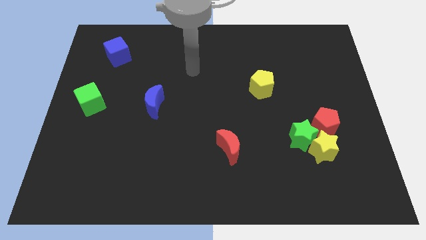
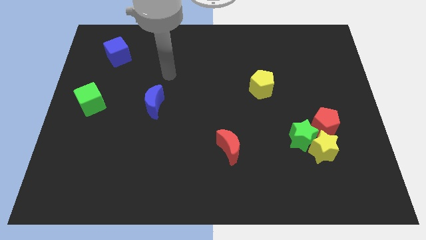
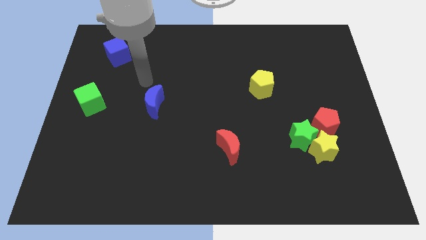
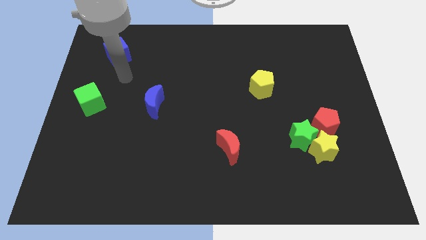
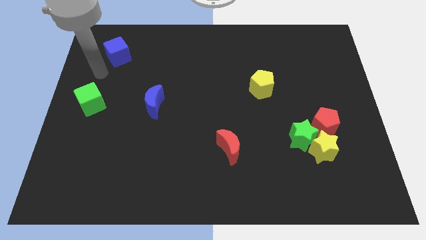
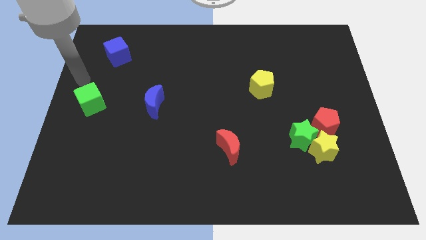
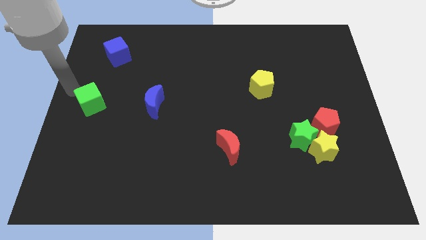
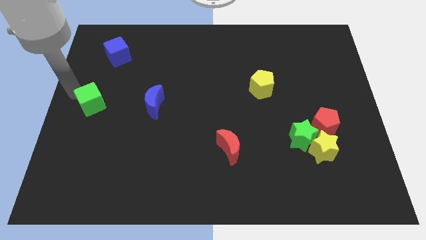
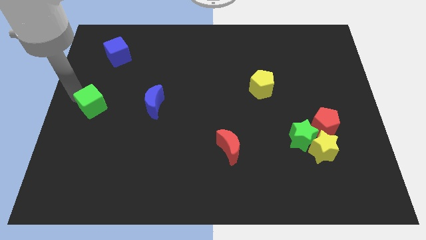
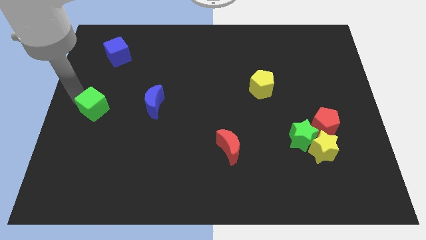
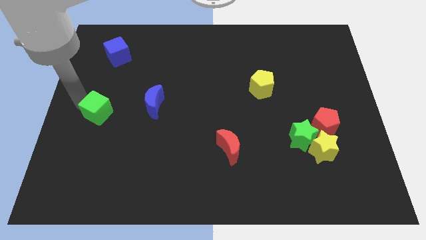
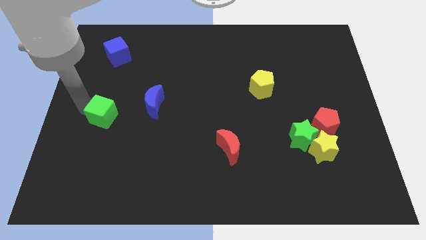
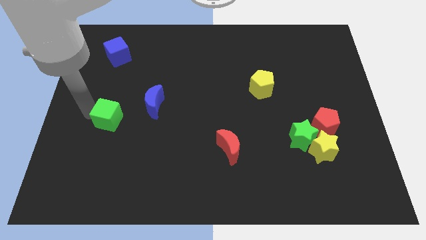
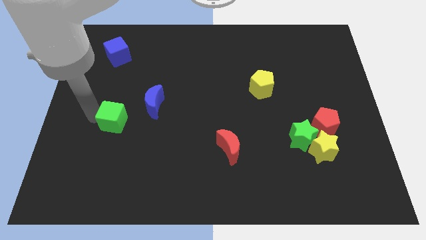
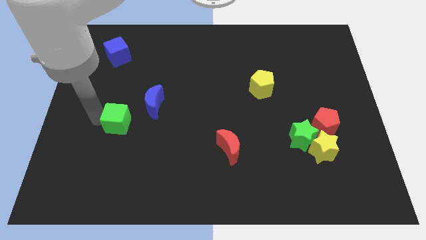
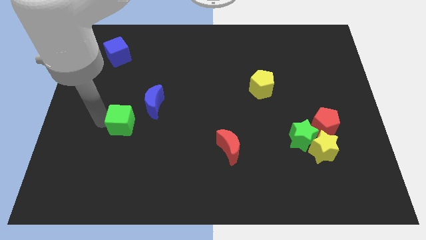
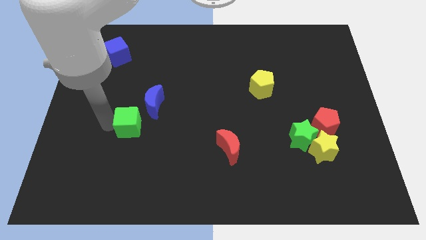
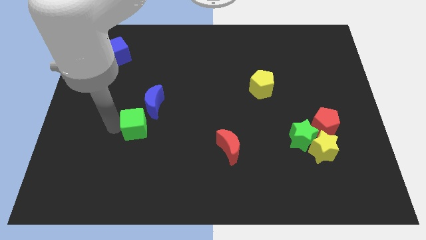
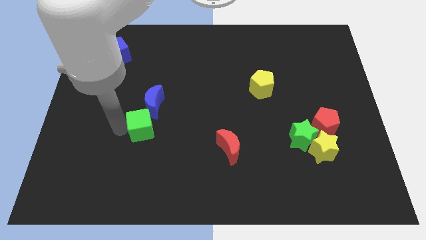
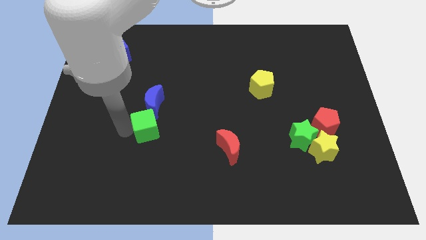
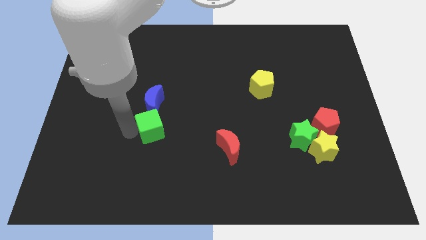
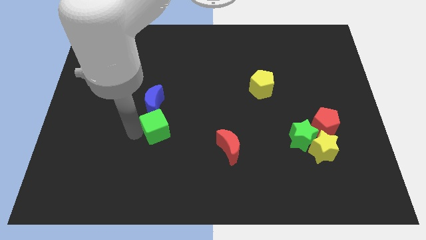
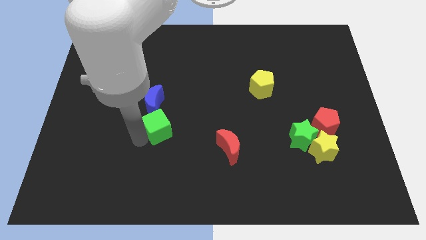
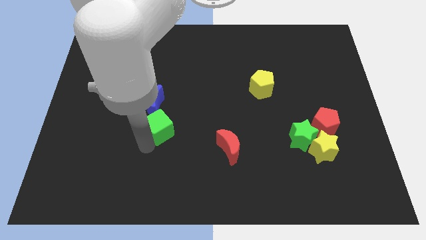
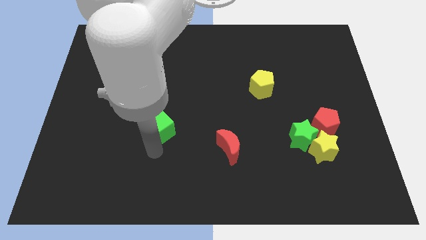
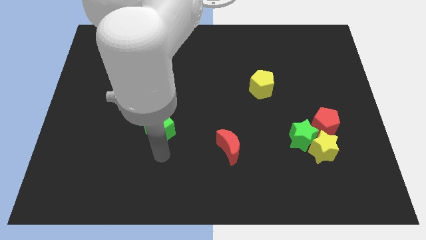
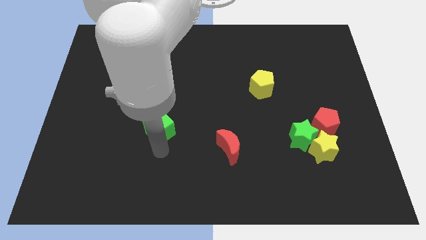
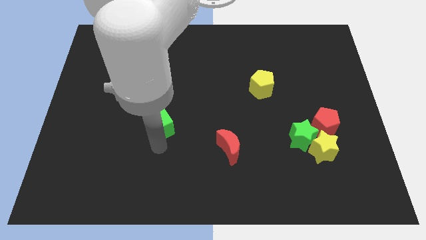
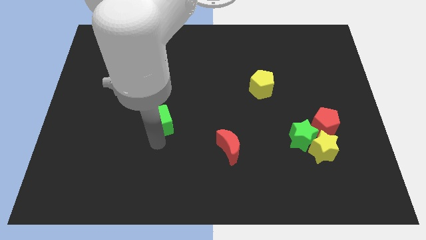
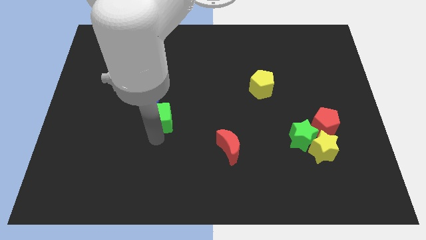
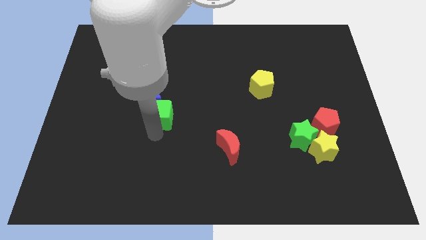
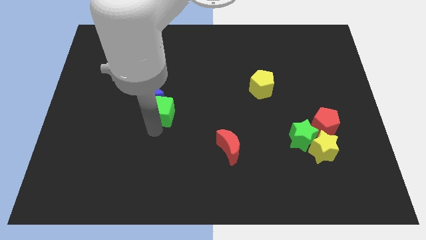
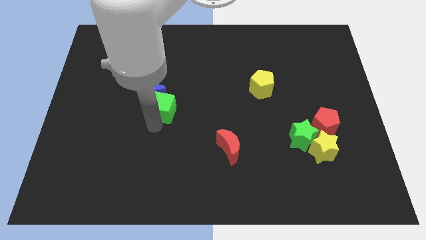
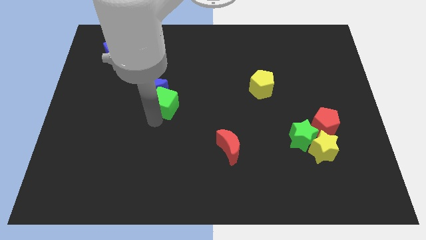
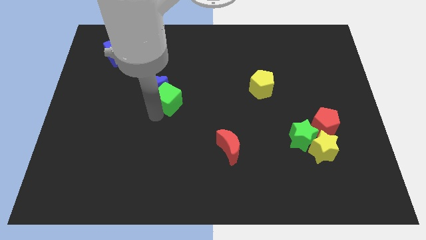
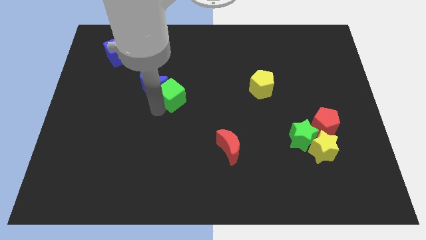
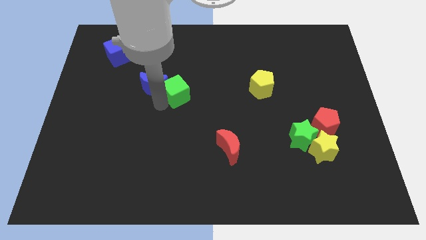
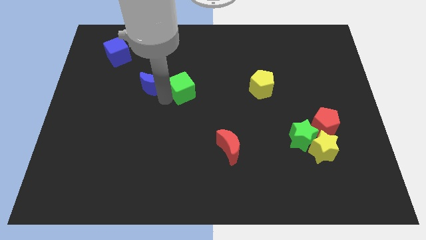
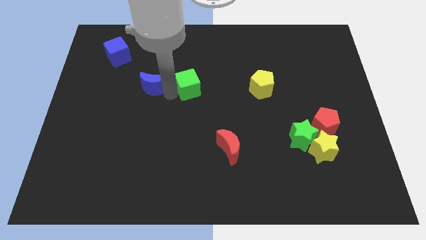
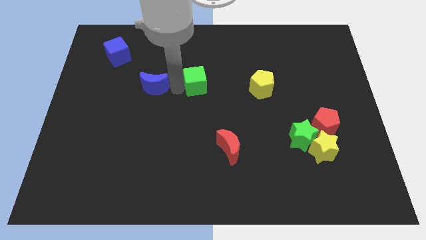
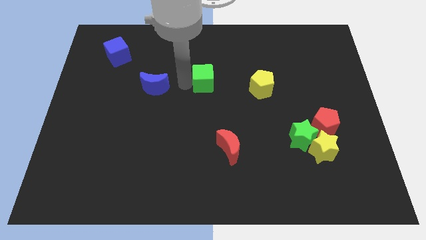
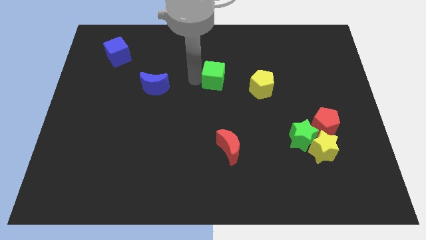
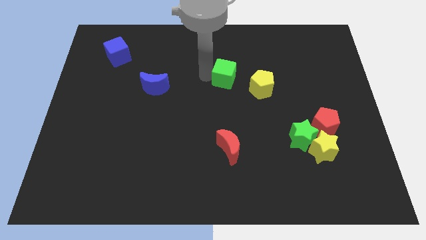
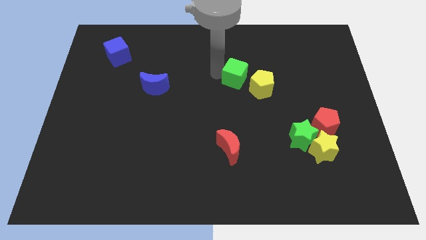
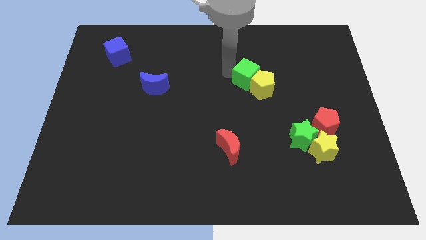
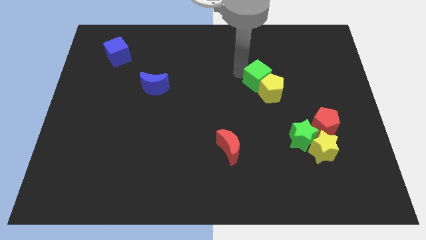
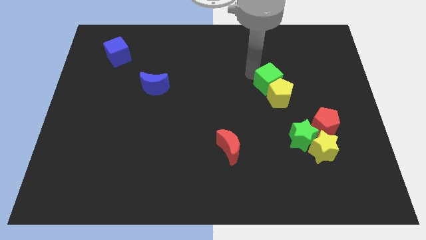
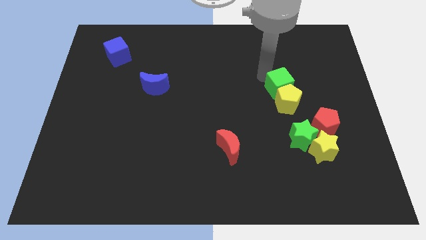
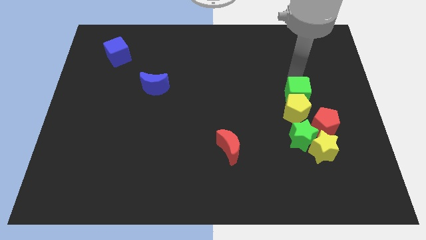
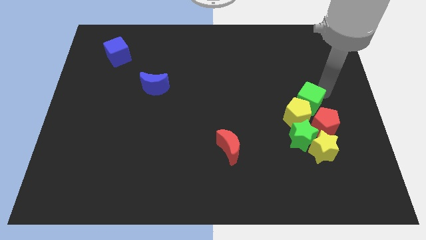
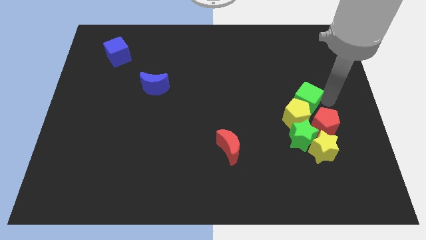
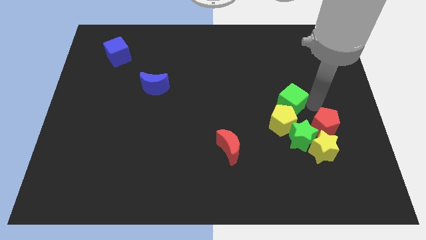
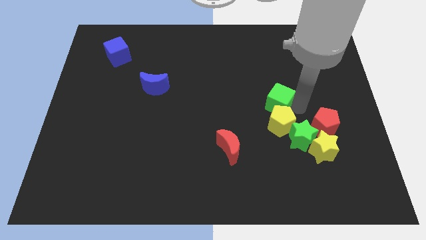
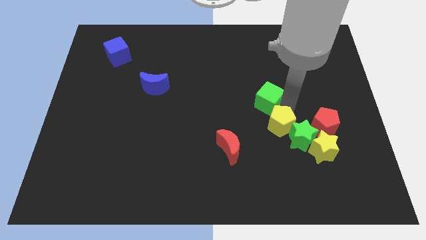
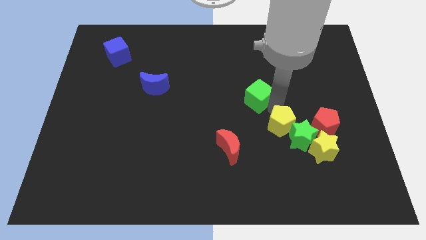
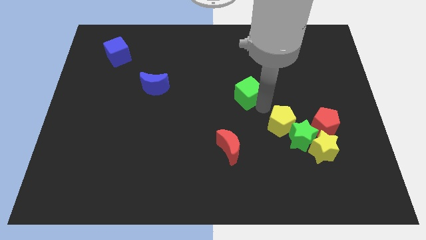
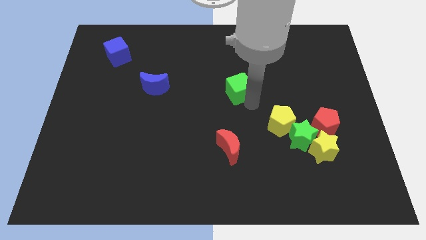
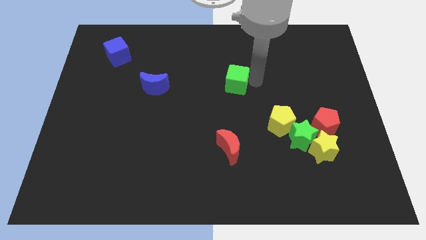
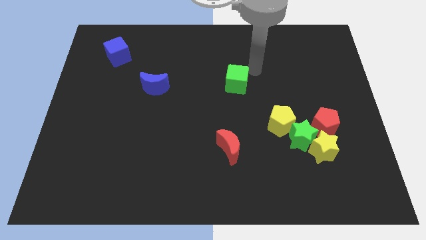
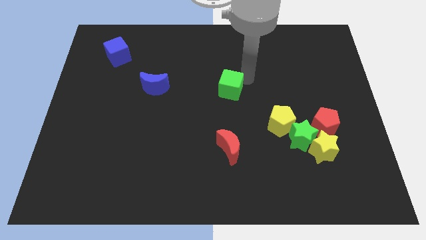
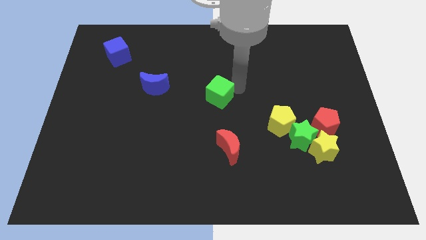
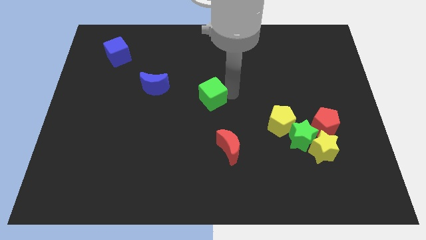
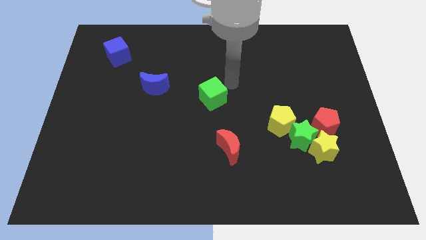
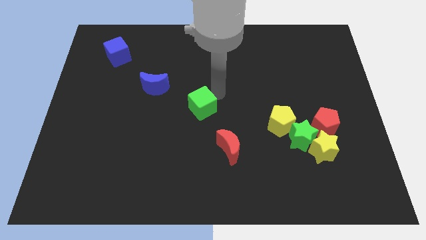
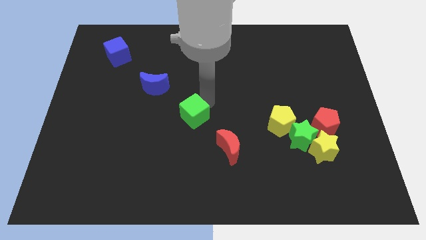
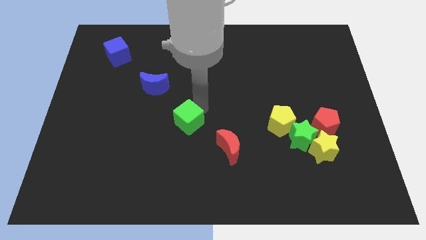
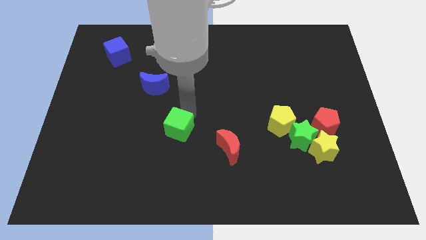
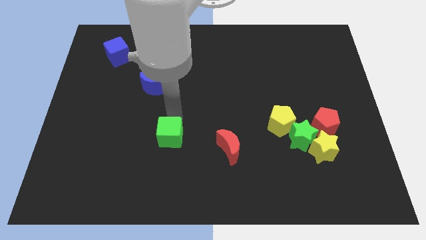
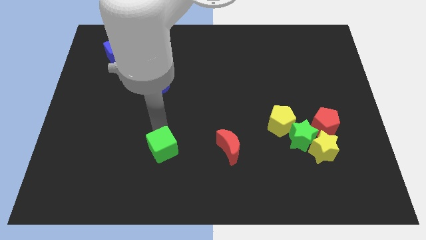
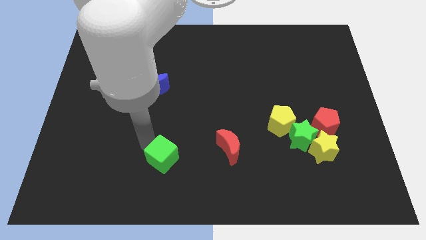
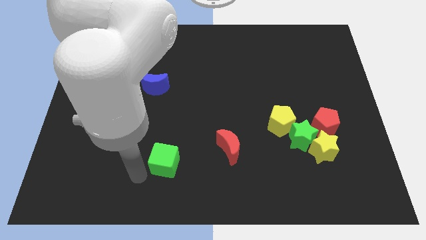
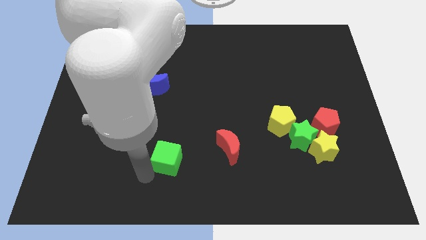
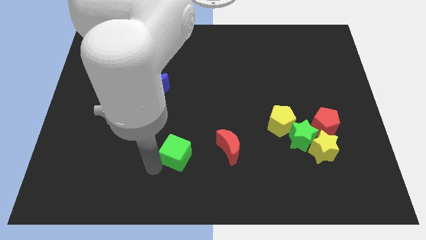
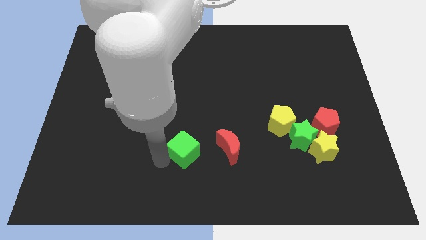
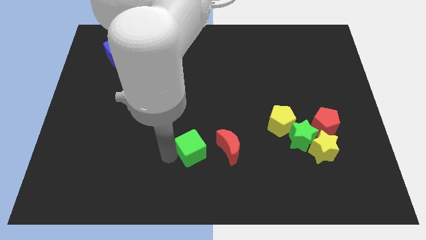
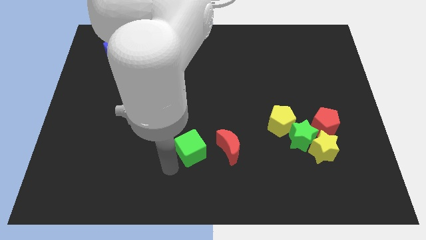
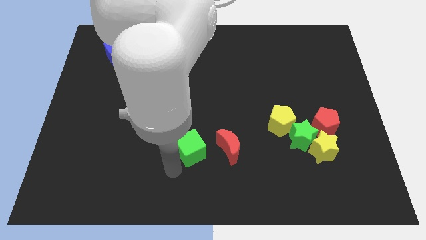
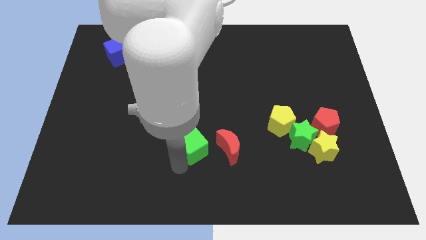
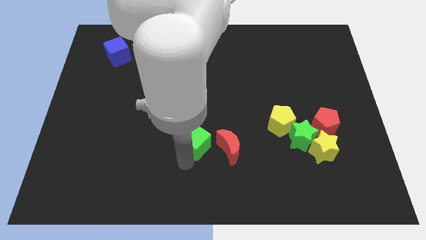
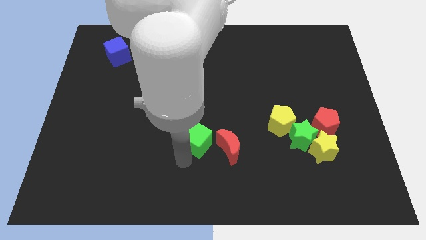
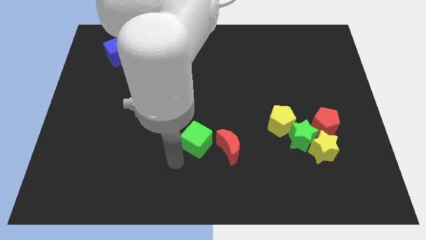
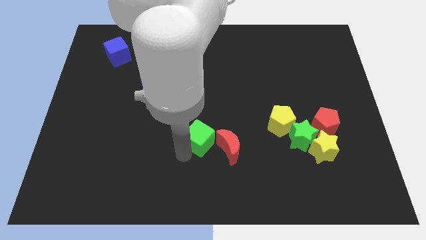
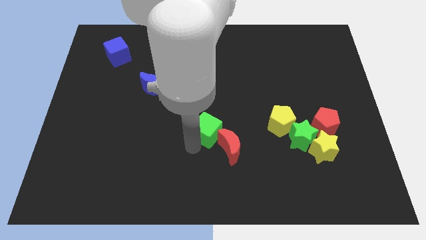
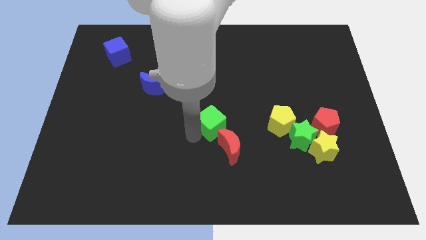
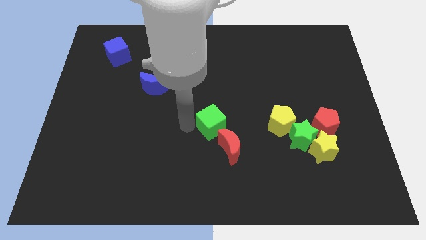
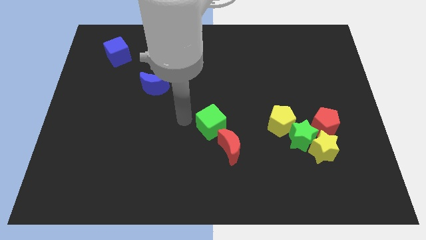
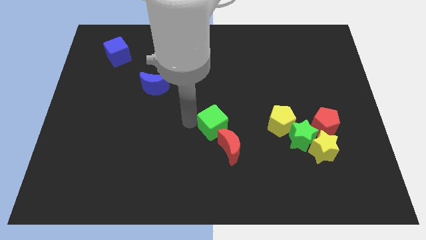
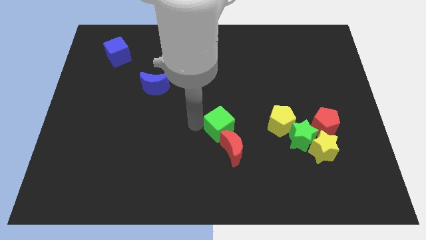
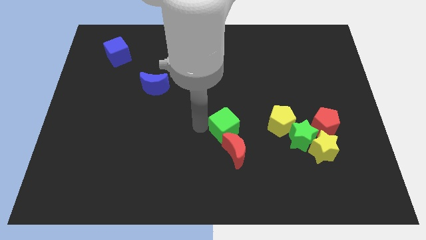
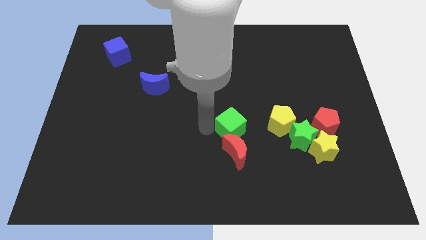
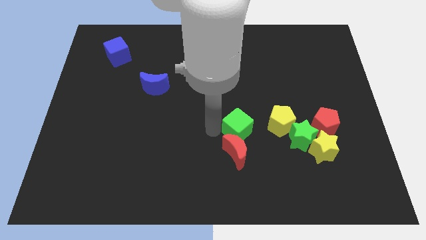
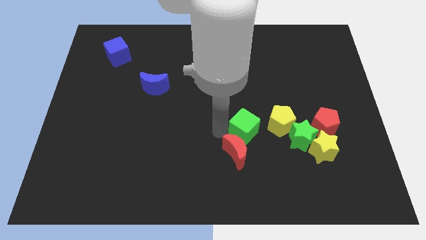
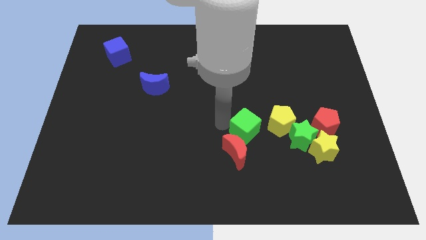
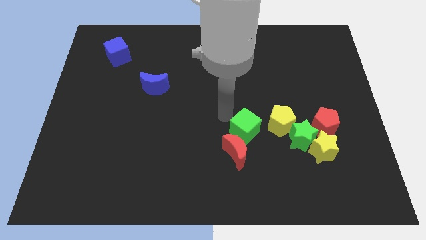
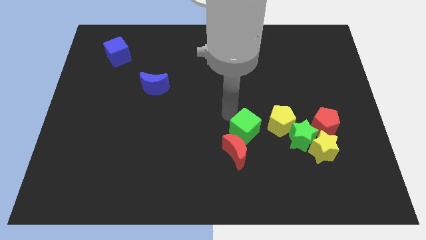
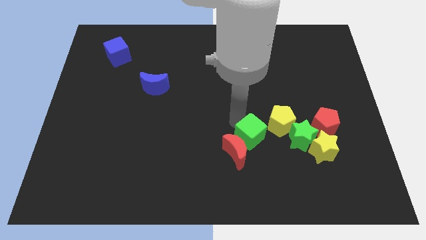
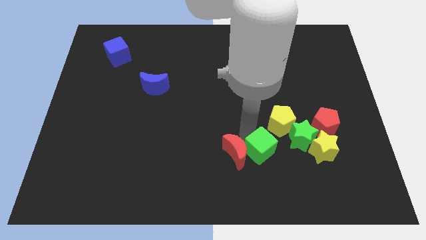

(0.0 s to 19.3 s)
put the green cube to the bottom left side of the green star
